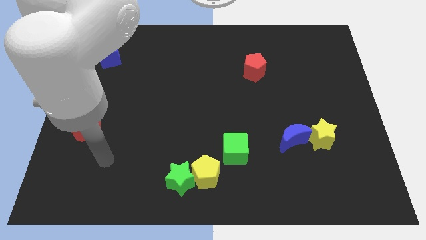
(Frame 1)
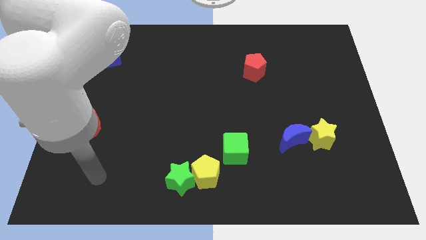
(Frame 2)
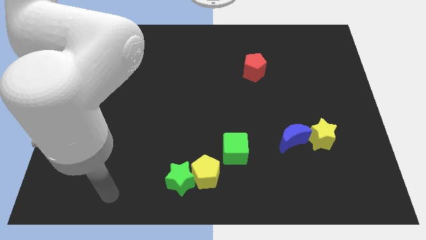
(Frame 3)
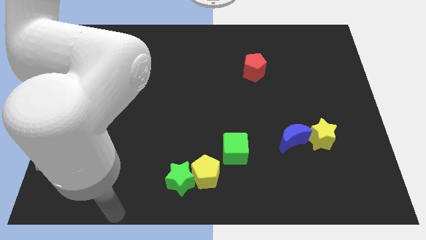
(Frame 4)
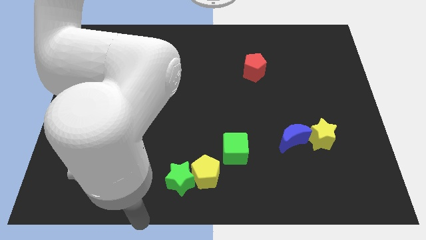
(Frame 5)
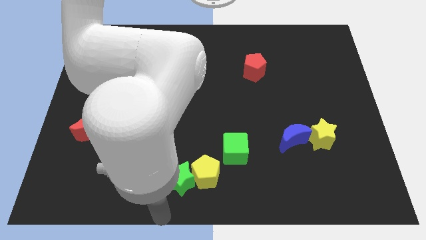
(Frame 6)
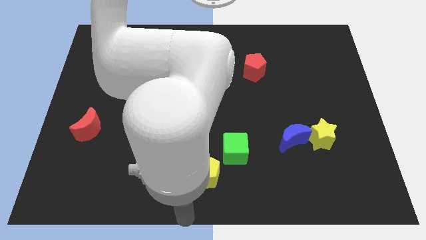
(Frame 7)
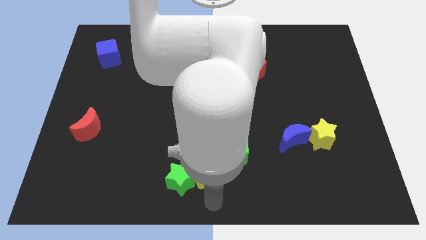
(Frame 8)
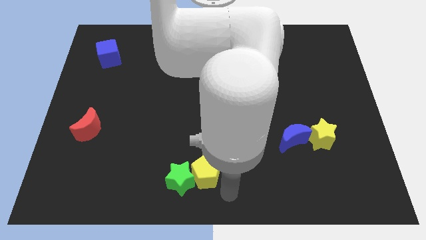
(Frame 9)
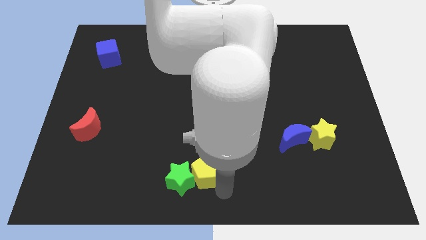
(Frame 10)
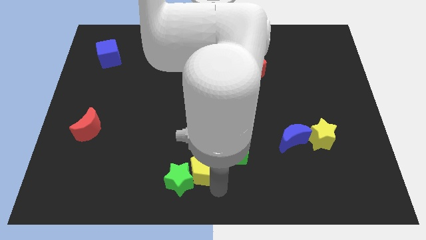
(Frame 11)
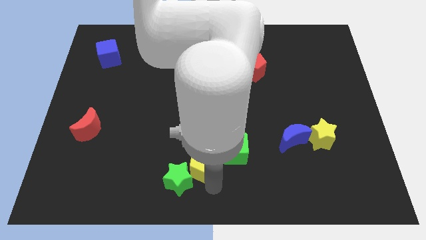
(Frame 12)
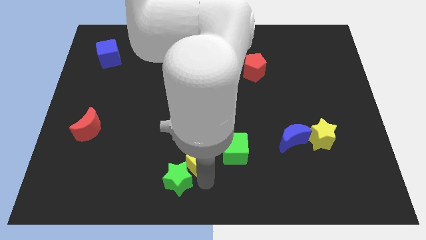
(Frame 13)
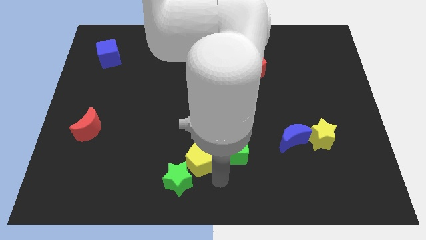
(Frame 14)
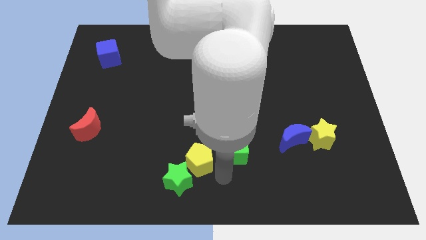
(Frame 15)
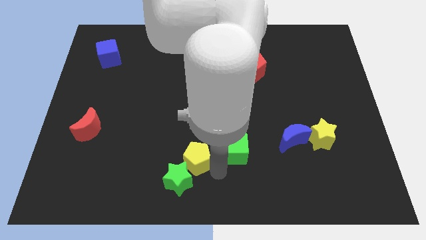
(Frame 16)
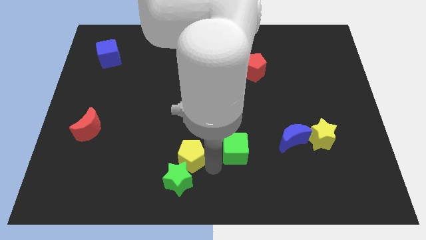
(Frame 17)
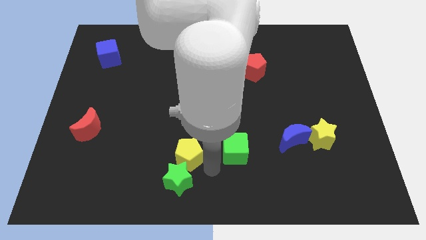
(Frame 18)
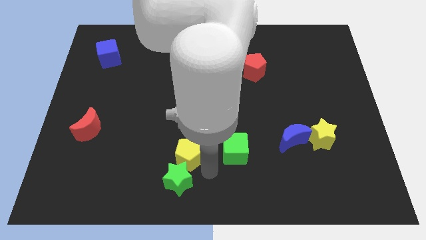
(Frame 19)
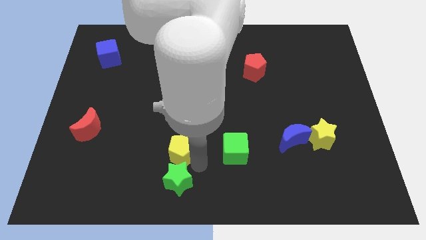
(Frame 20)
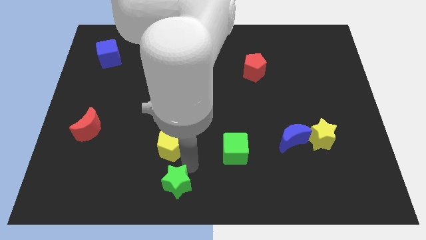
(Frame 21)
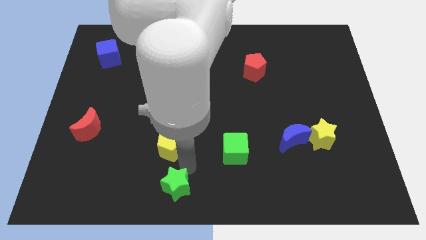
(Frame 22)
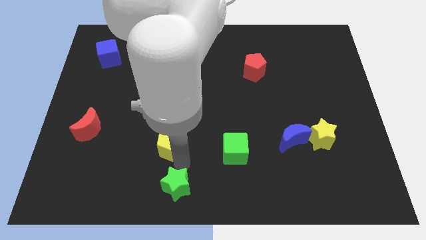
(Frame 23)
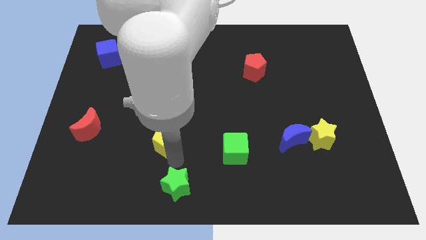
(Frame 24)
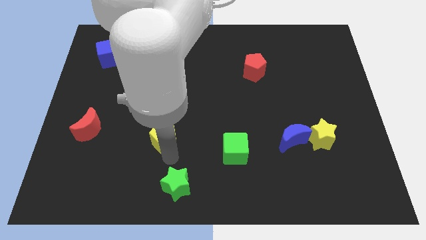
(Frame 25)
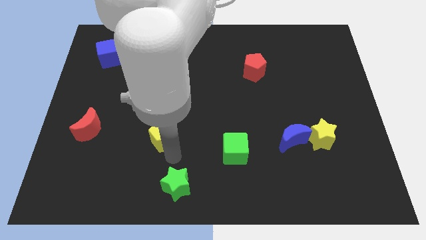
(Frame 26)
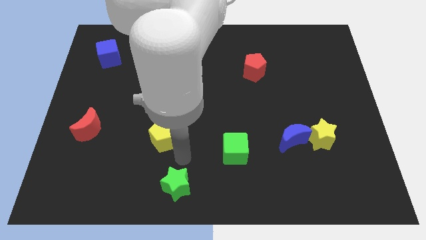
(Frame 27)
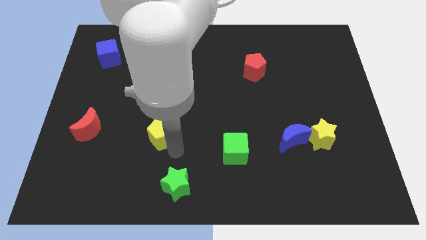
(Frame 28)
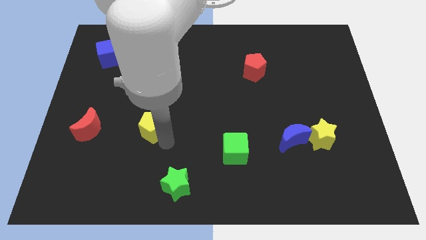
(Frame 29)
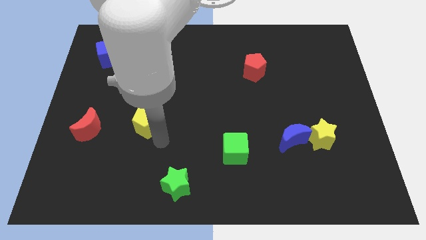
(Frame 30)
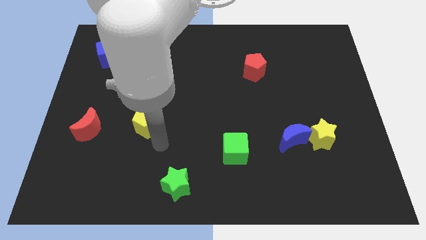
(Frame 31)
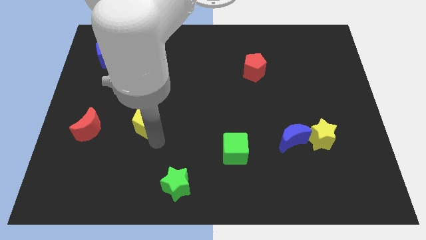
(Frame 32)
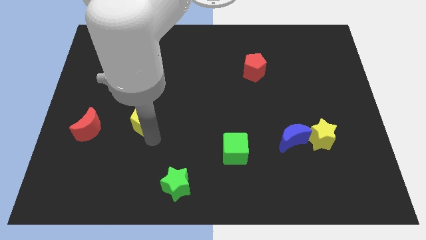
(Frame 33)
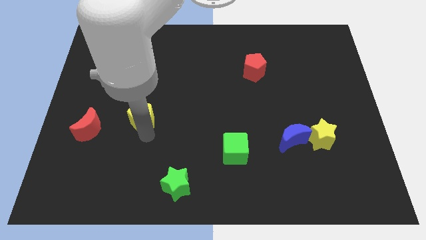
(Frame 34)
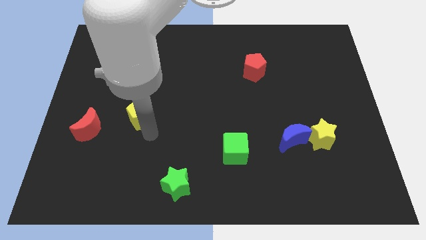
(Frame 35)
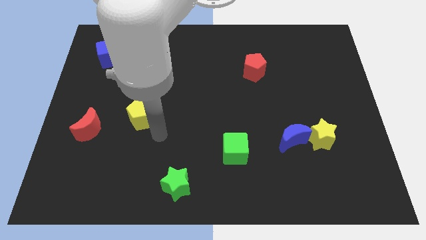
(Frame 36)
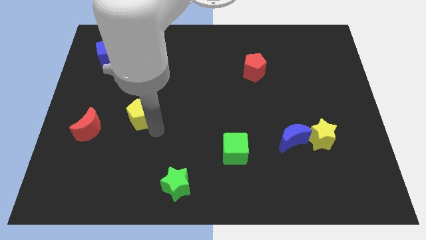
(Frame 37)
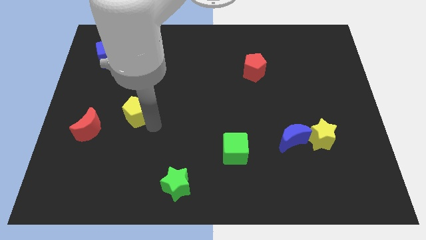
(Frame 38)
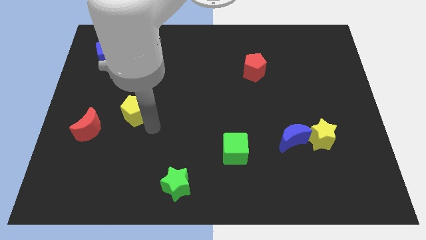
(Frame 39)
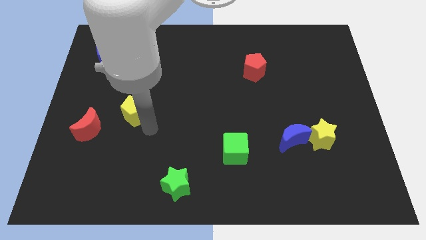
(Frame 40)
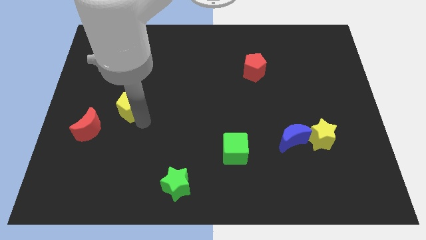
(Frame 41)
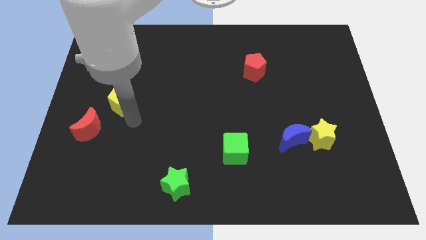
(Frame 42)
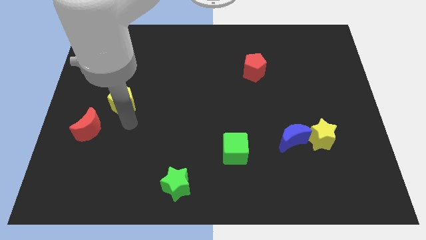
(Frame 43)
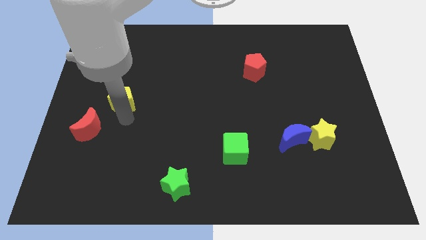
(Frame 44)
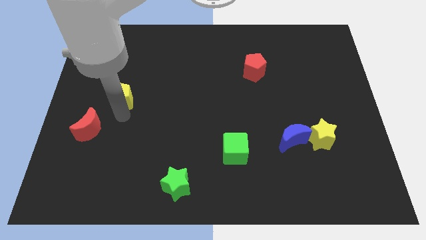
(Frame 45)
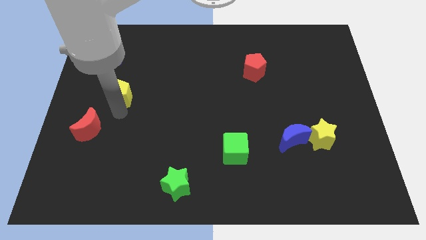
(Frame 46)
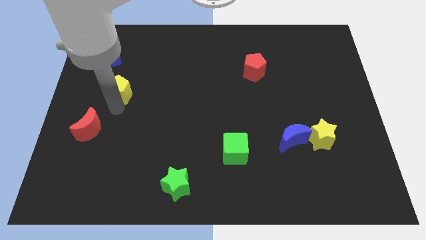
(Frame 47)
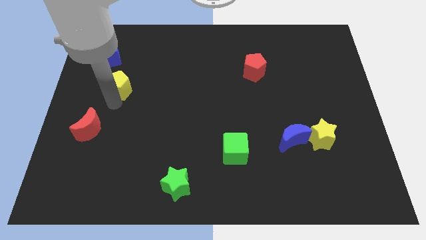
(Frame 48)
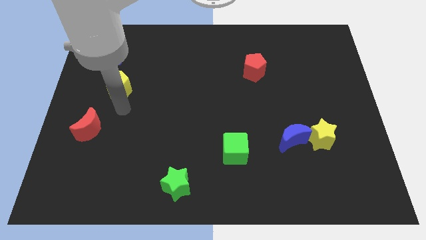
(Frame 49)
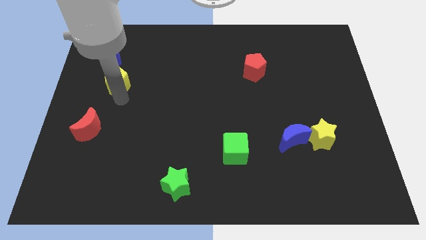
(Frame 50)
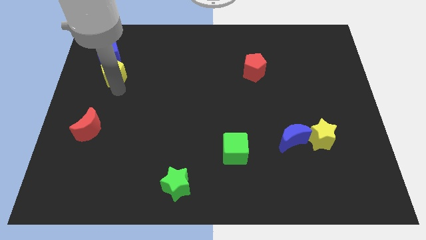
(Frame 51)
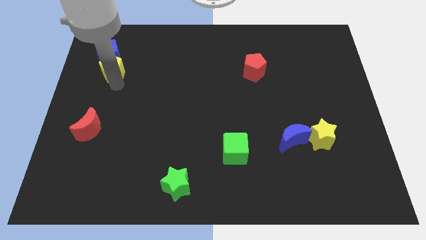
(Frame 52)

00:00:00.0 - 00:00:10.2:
slide the yellow pentagon towards the blue cube

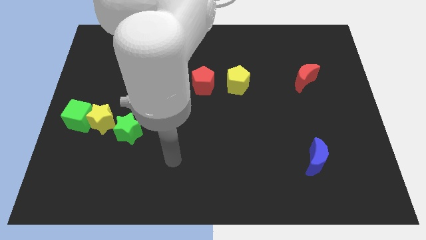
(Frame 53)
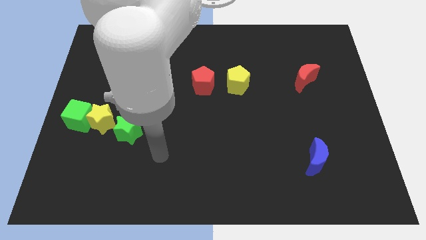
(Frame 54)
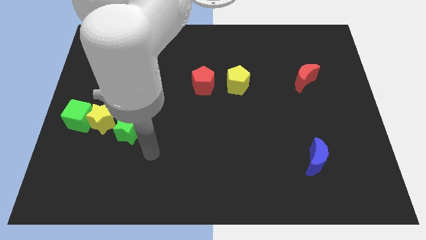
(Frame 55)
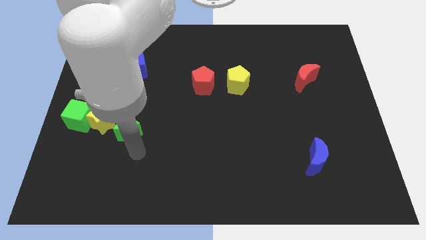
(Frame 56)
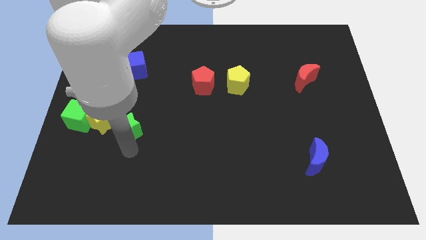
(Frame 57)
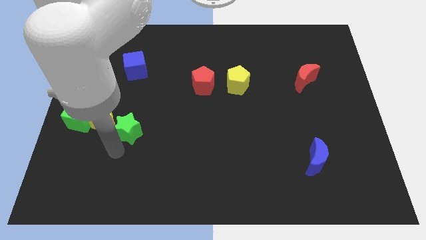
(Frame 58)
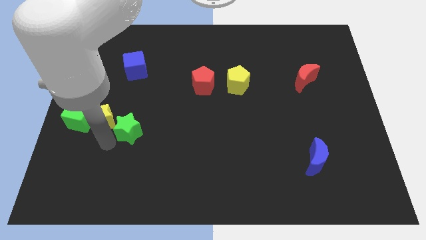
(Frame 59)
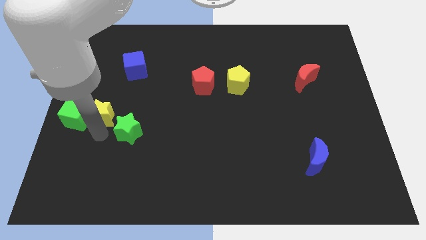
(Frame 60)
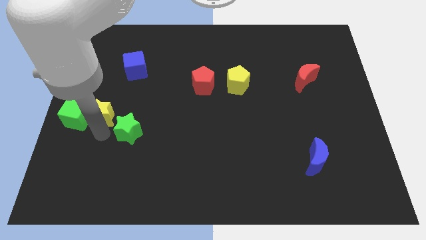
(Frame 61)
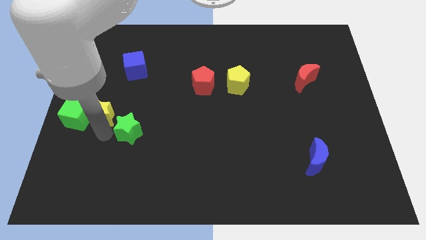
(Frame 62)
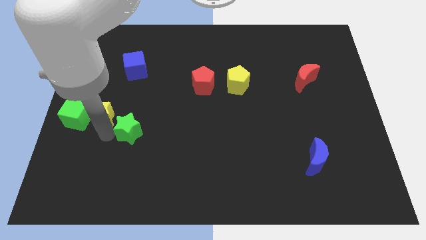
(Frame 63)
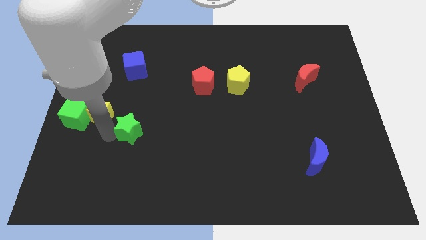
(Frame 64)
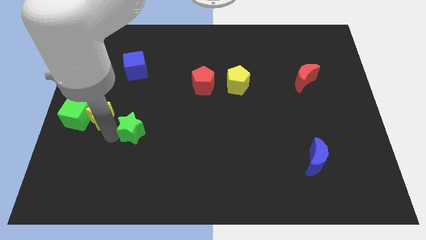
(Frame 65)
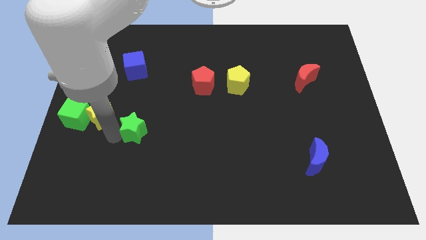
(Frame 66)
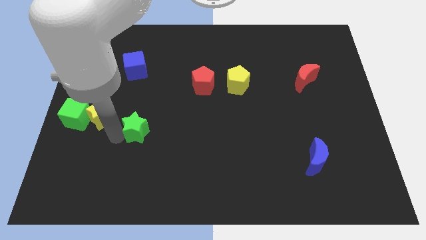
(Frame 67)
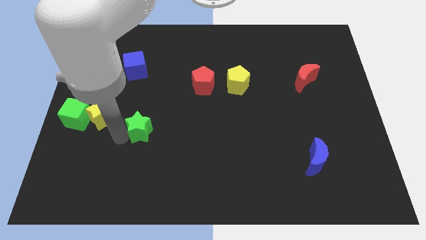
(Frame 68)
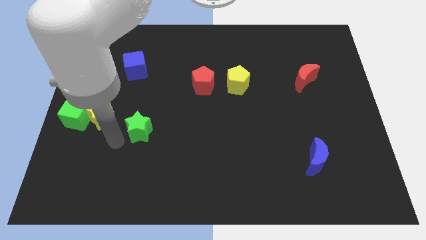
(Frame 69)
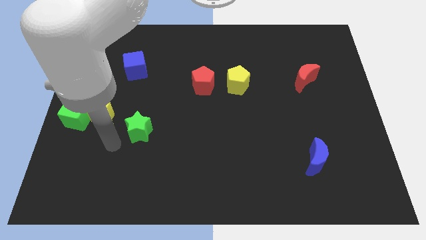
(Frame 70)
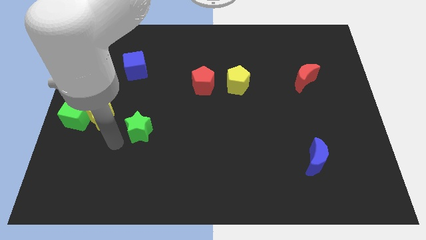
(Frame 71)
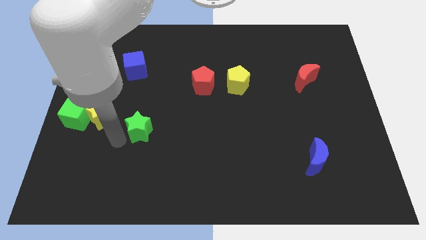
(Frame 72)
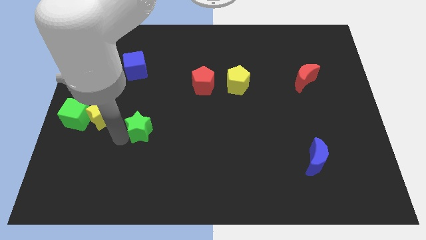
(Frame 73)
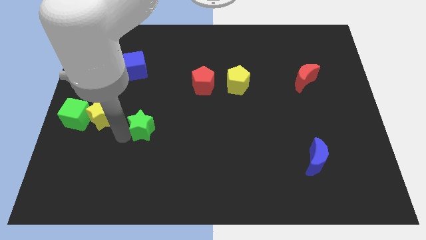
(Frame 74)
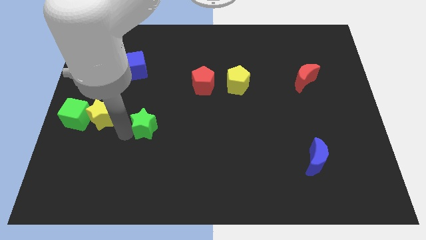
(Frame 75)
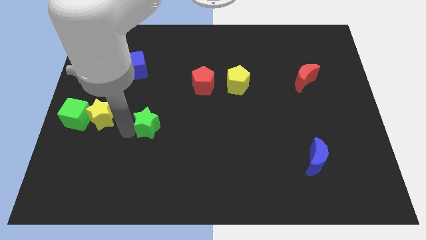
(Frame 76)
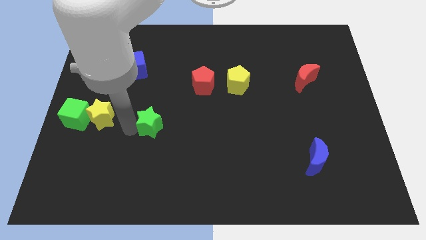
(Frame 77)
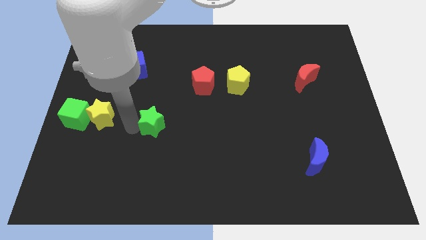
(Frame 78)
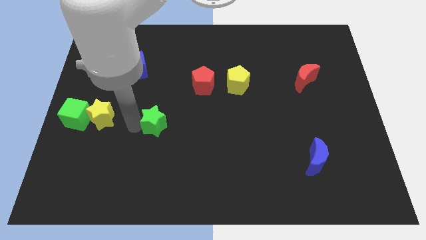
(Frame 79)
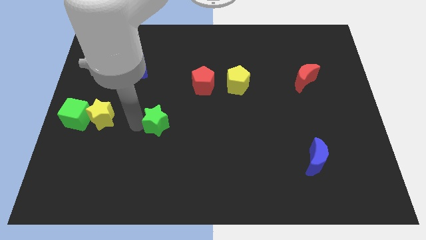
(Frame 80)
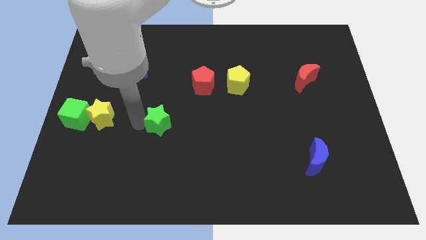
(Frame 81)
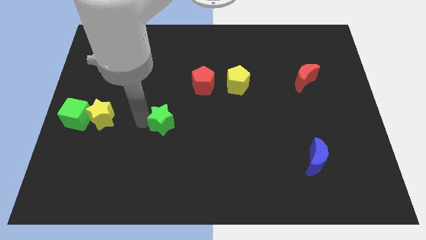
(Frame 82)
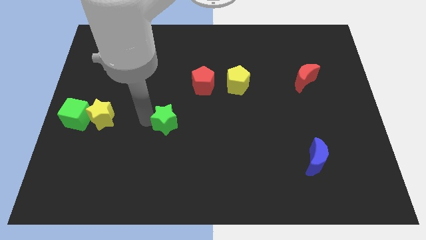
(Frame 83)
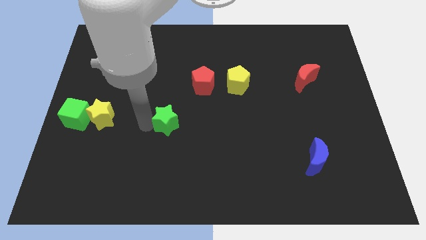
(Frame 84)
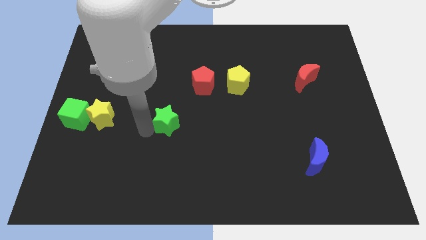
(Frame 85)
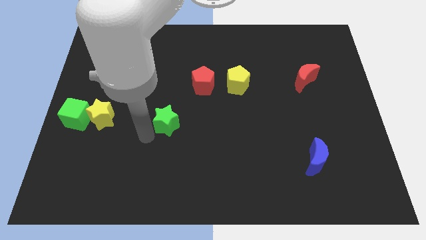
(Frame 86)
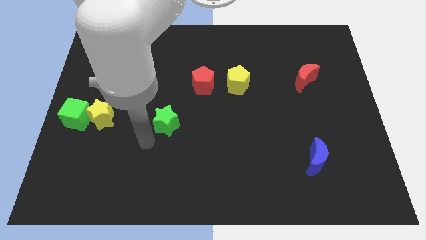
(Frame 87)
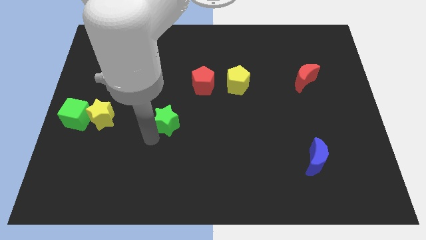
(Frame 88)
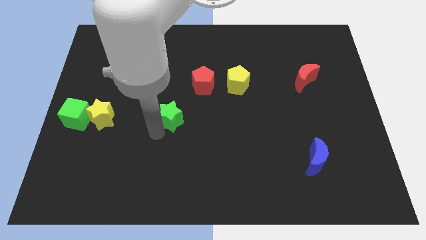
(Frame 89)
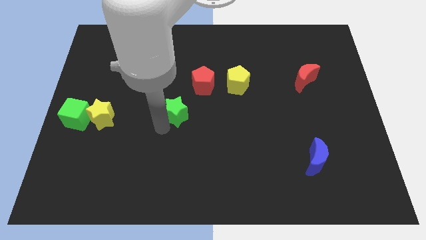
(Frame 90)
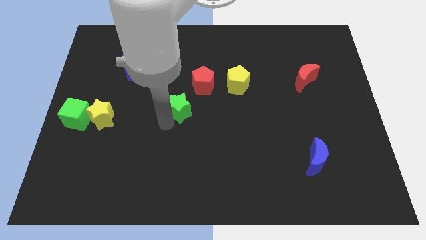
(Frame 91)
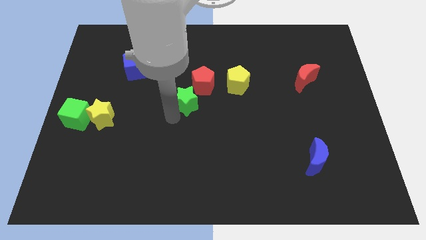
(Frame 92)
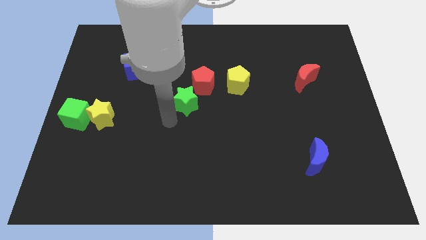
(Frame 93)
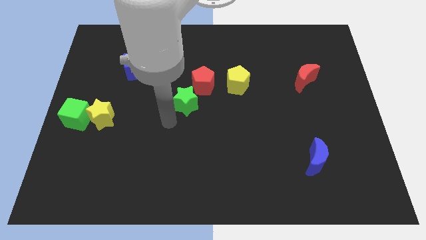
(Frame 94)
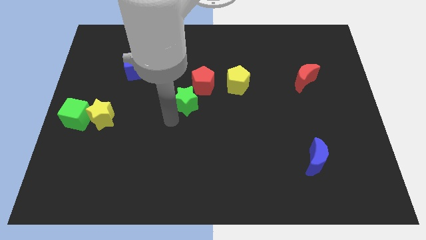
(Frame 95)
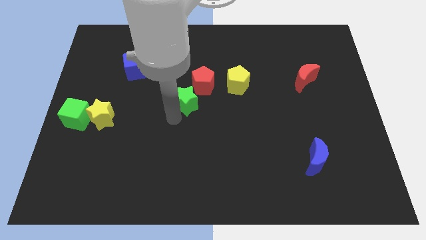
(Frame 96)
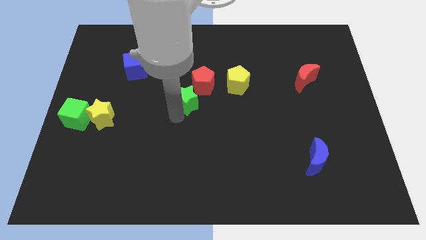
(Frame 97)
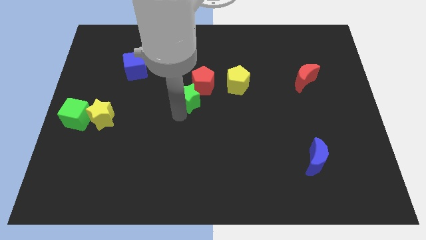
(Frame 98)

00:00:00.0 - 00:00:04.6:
slide the green star to the red pentagon
